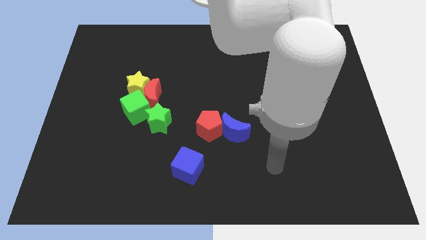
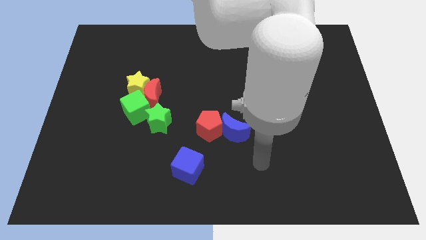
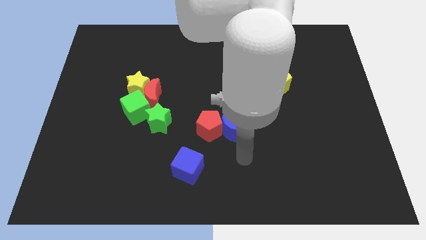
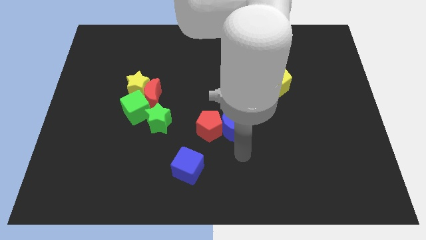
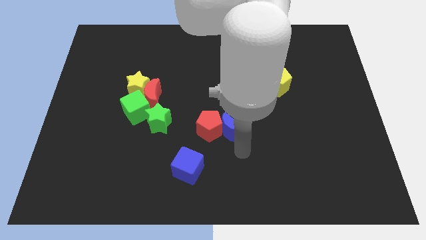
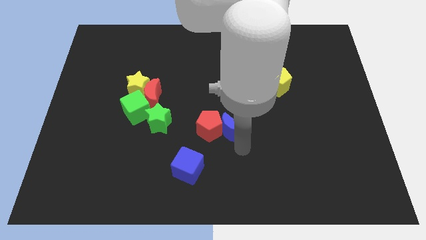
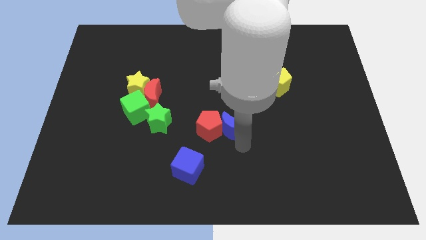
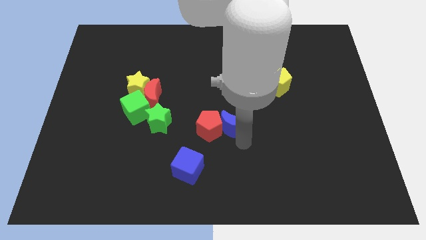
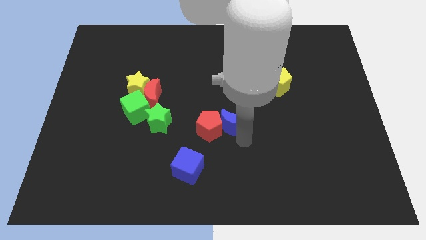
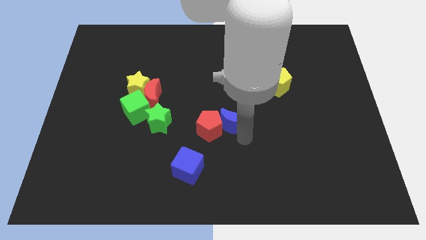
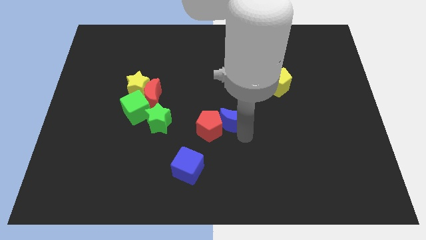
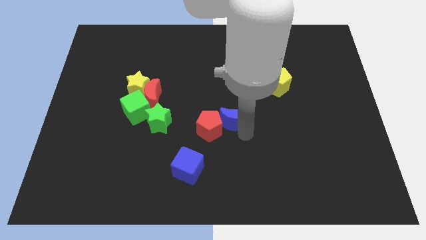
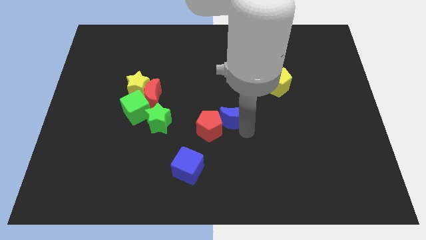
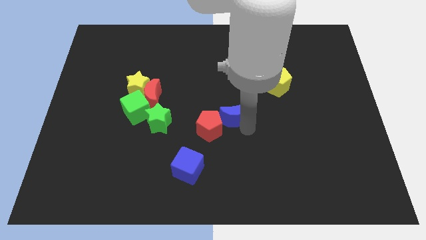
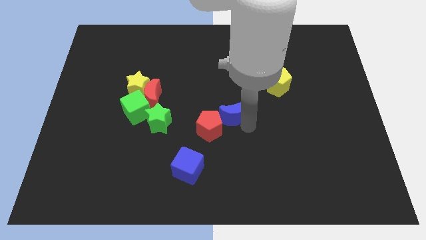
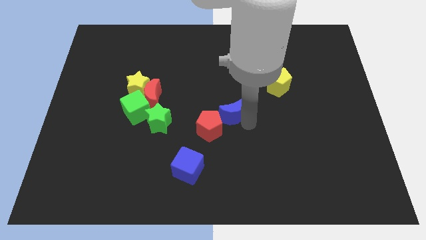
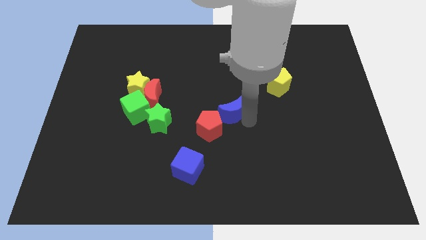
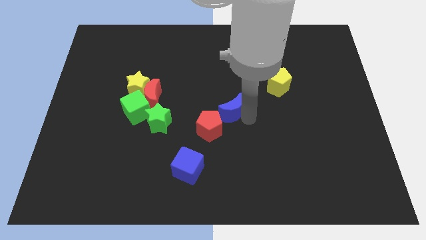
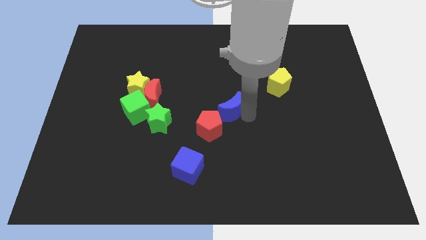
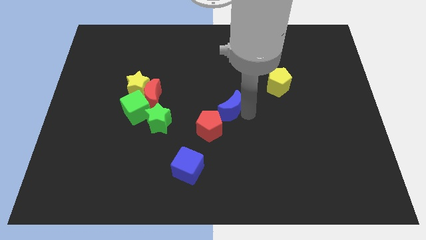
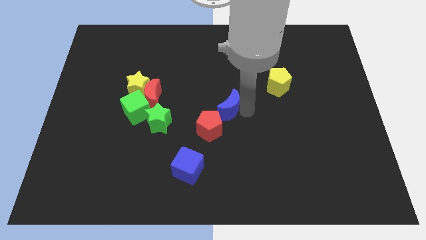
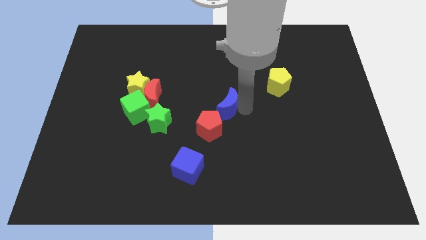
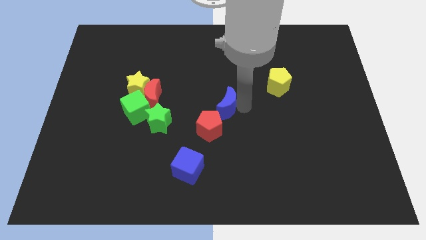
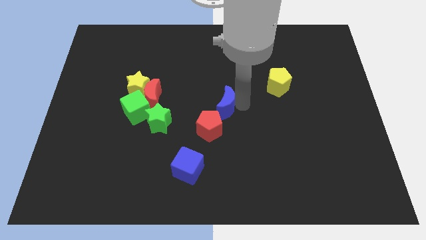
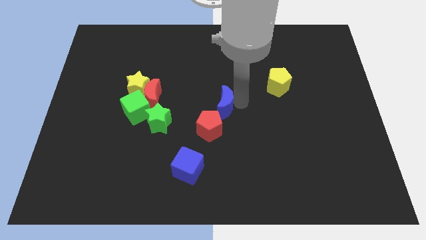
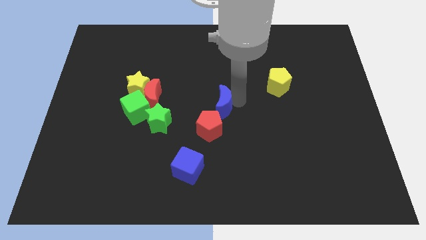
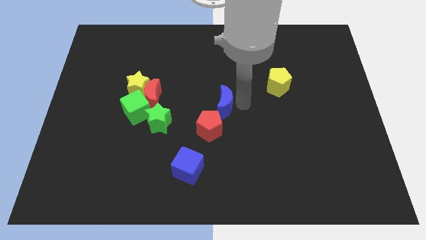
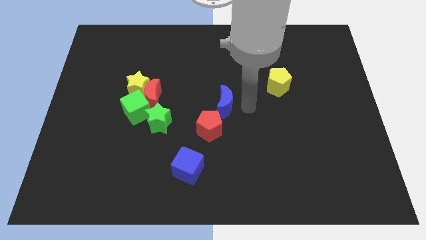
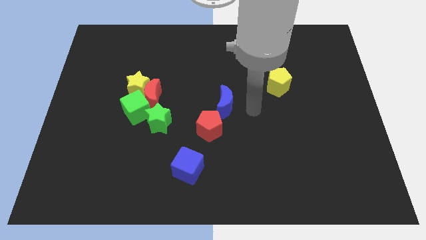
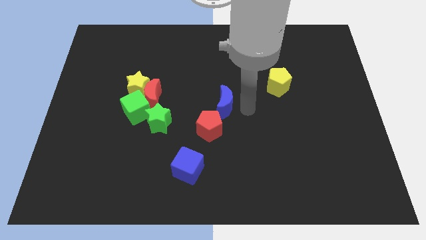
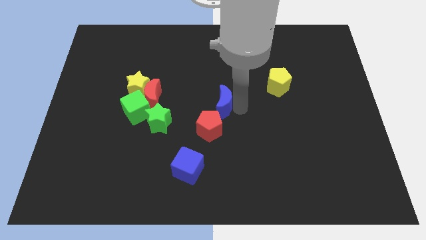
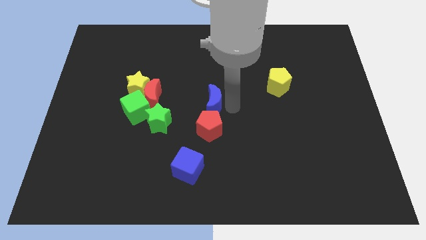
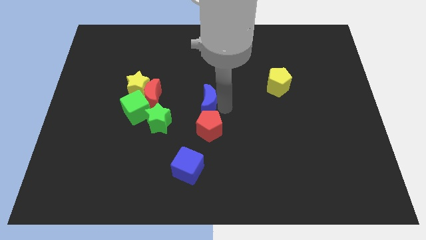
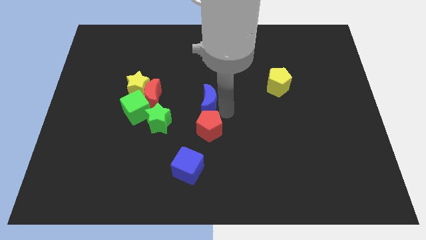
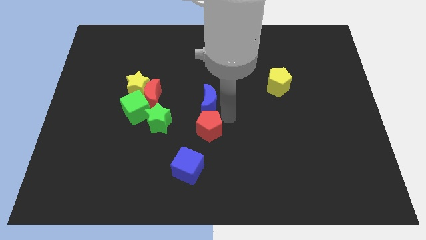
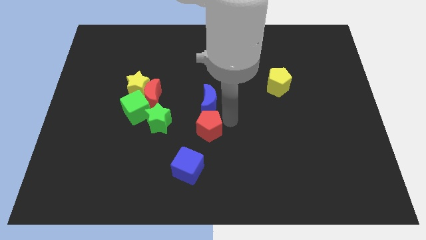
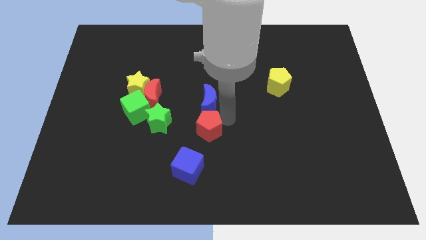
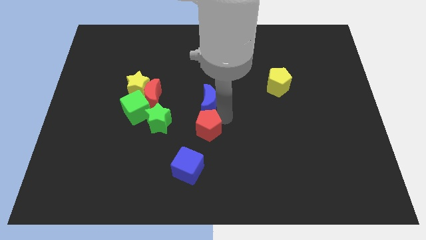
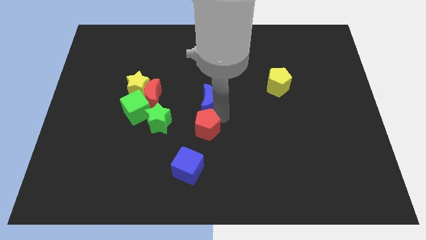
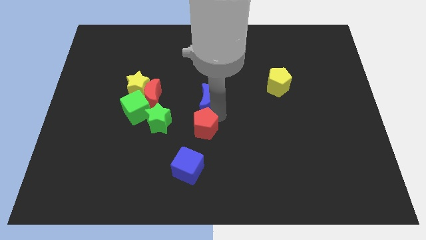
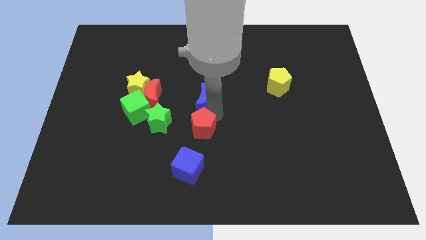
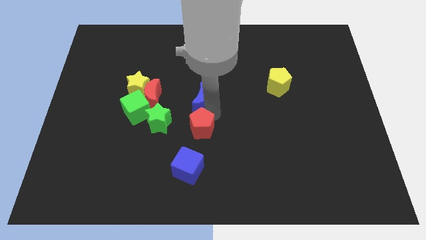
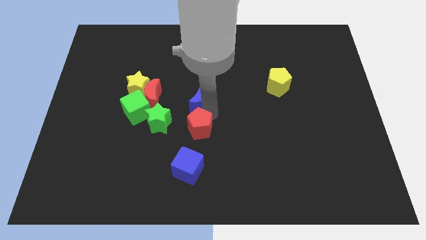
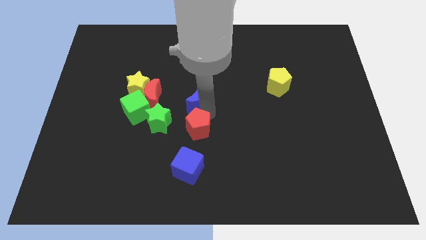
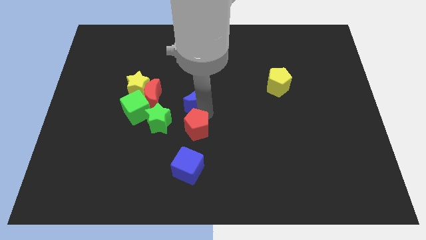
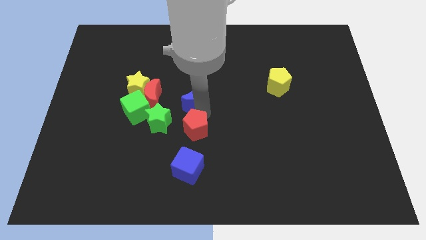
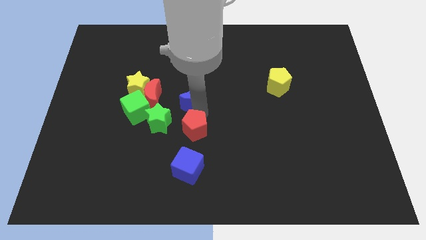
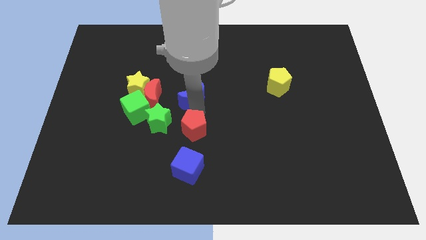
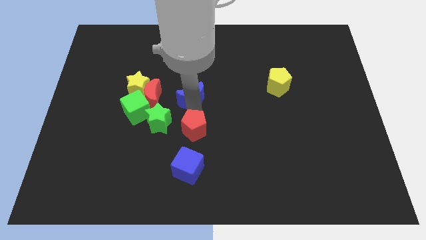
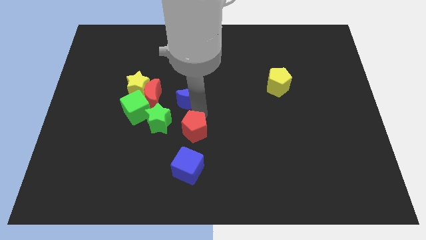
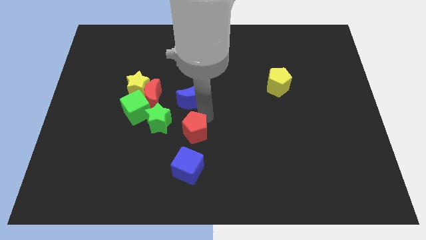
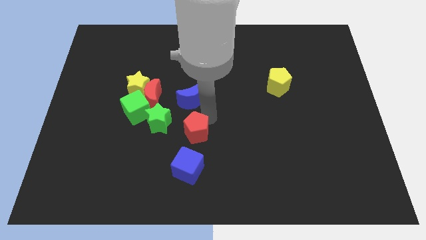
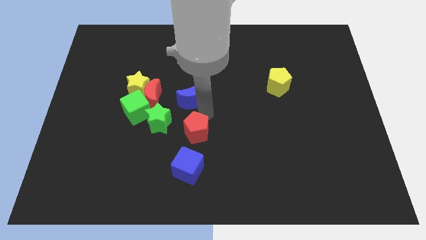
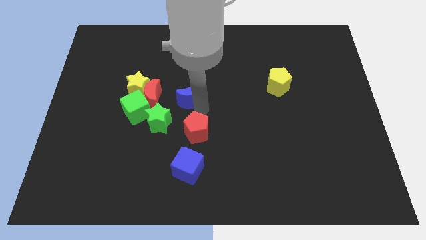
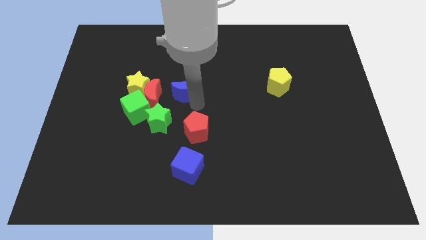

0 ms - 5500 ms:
put the blue moon diagonally up and to the right of the red moon

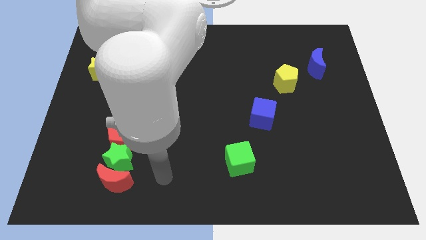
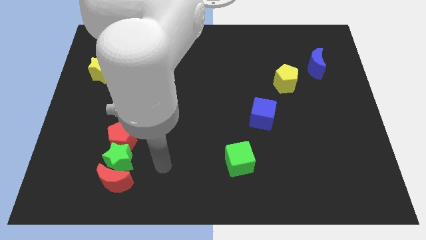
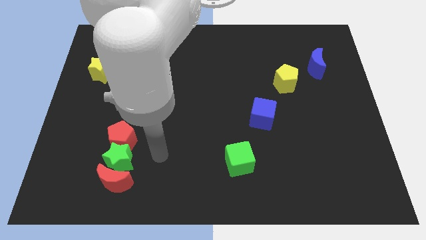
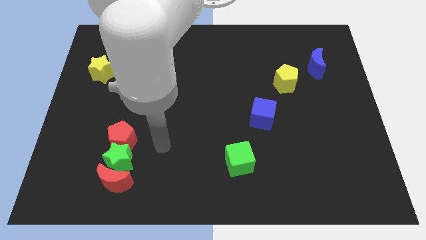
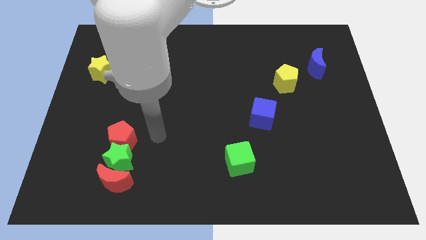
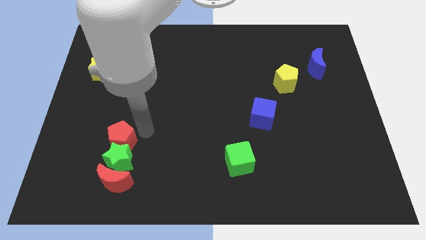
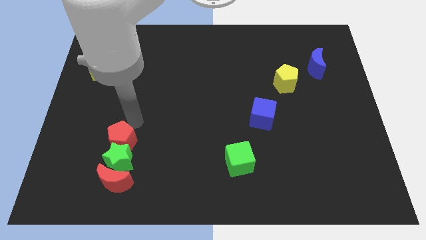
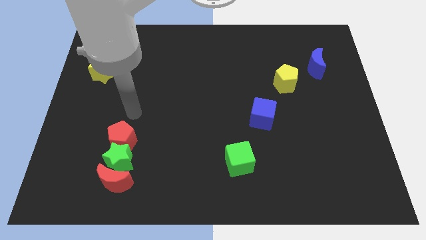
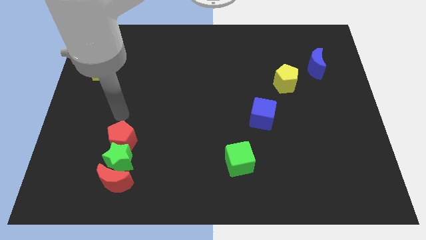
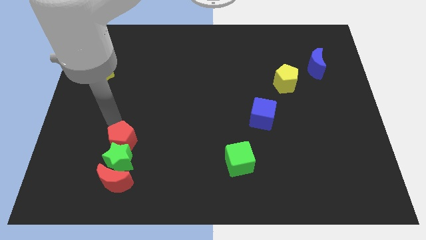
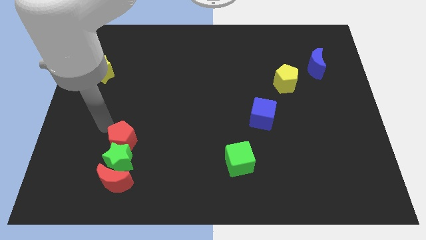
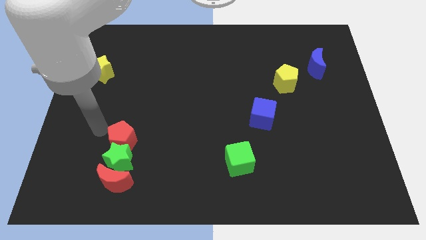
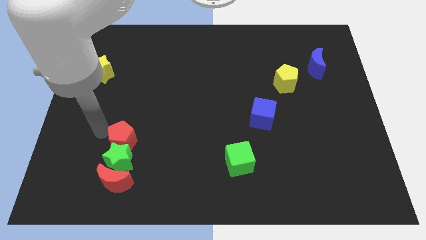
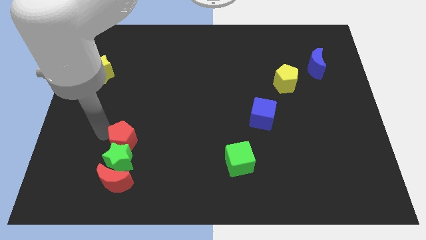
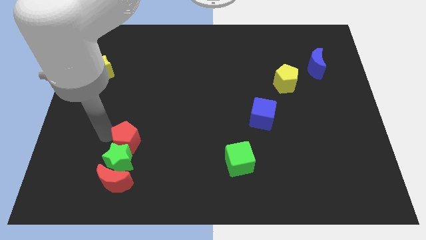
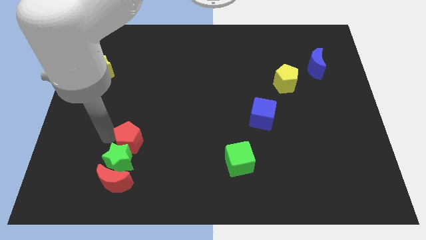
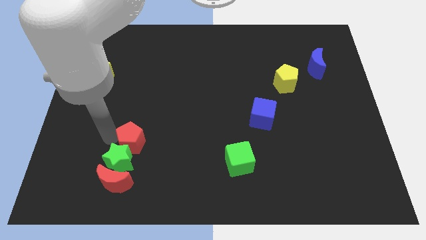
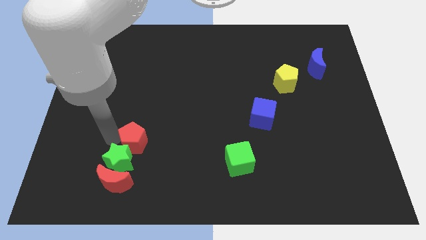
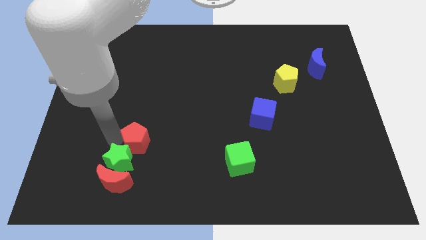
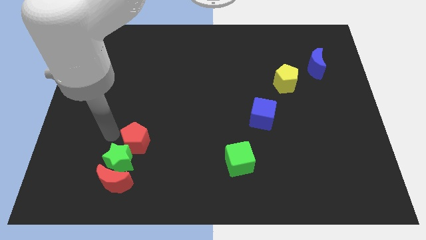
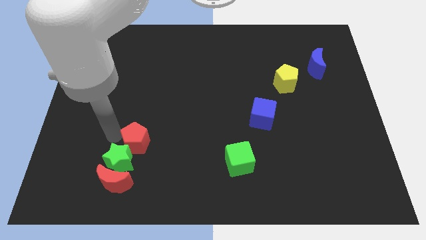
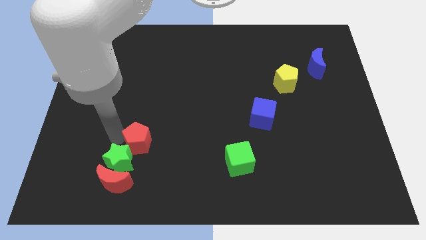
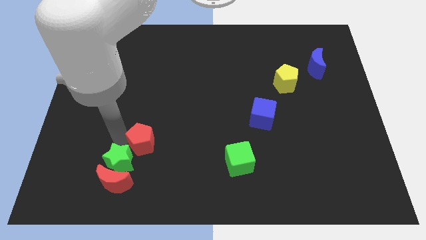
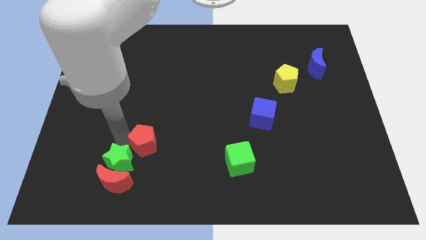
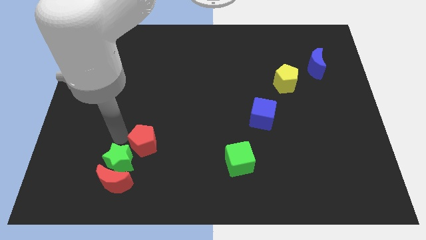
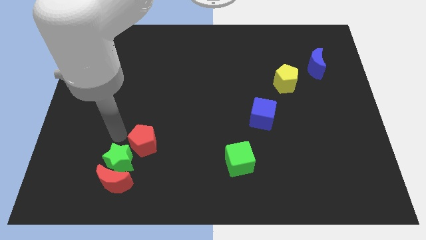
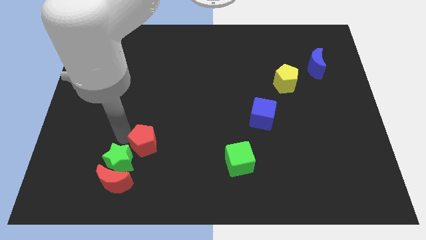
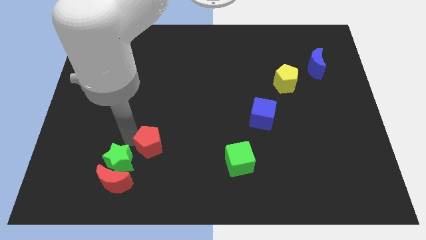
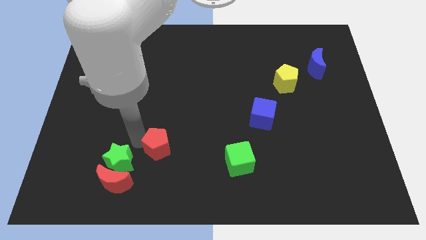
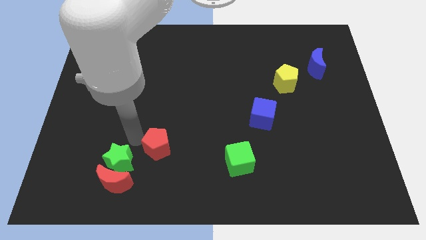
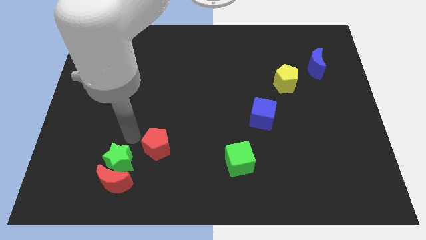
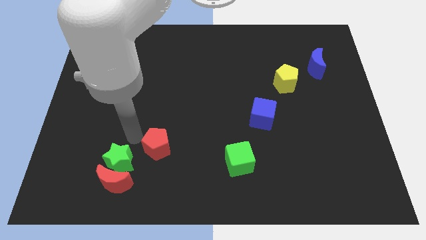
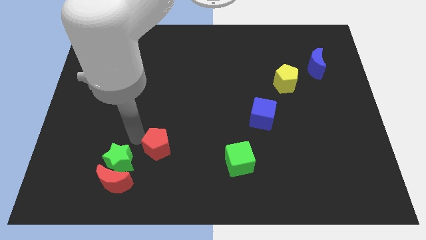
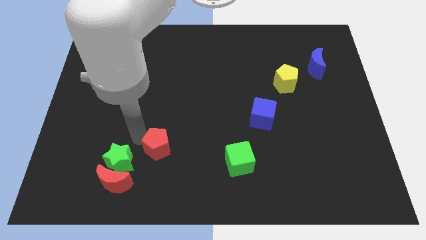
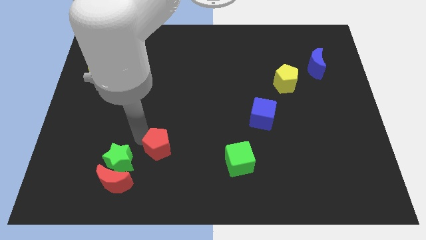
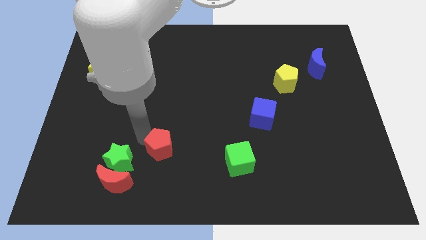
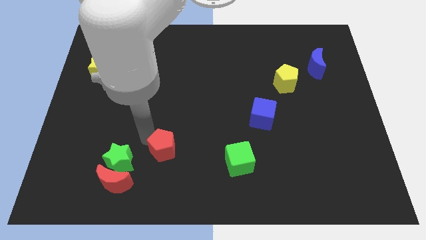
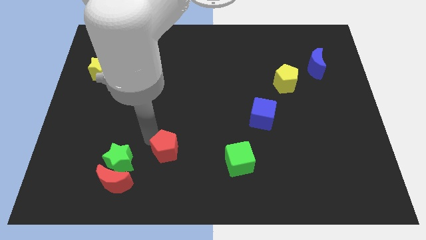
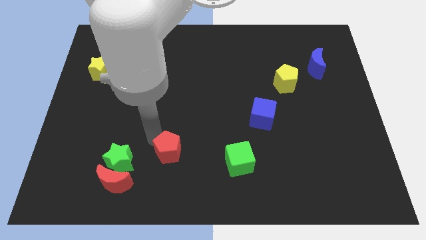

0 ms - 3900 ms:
push the red pentagon just left of the green cube
